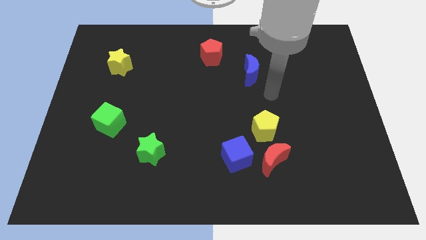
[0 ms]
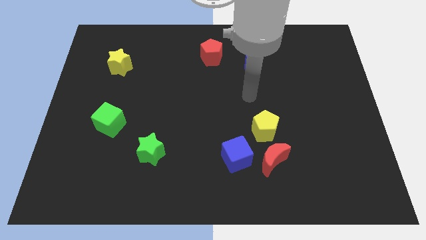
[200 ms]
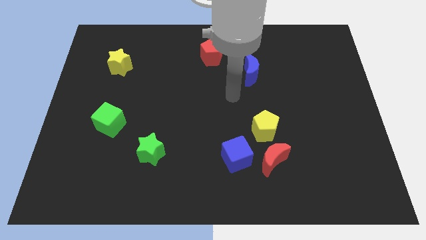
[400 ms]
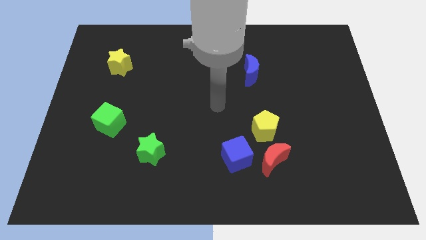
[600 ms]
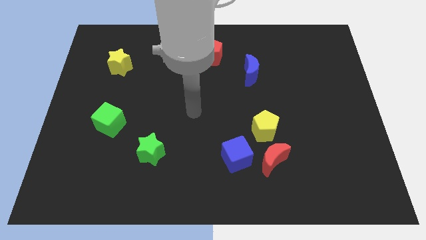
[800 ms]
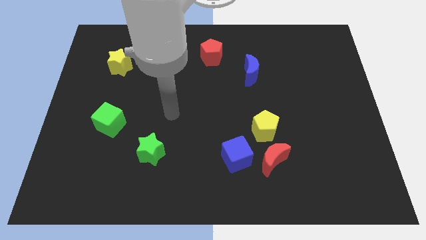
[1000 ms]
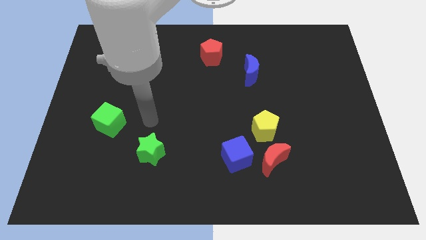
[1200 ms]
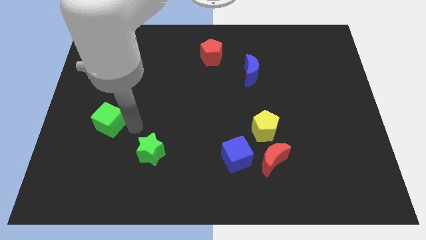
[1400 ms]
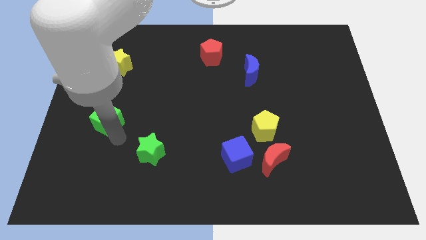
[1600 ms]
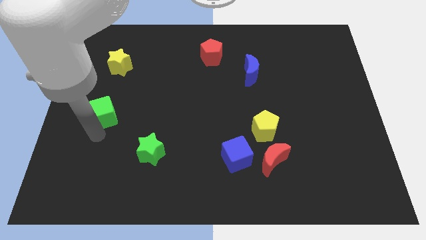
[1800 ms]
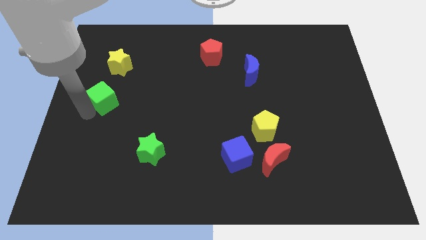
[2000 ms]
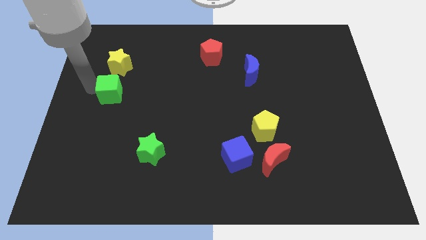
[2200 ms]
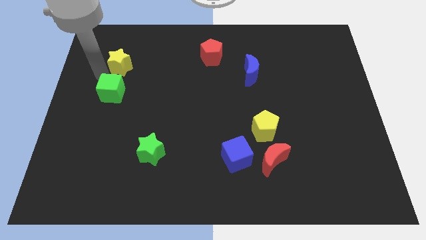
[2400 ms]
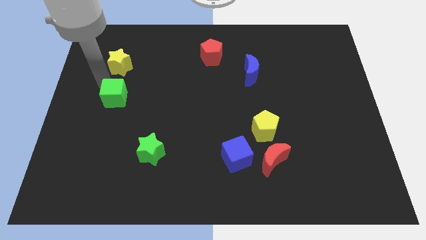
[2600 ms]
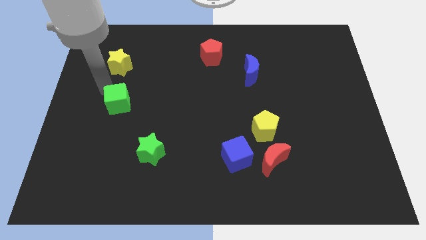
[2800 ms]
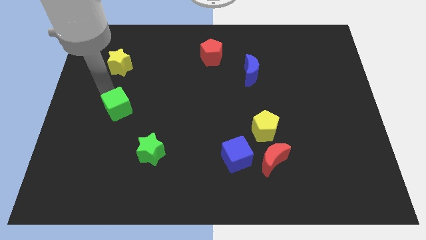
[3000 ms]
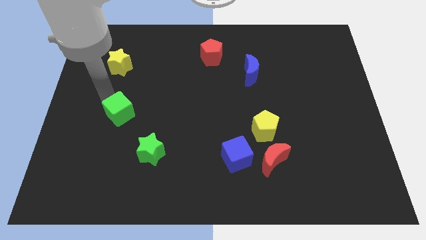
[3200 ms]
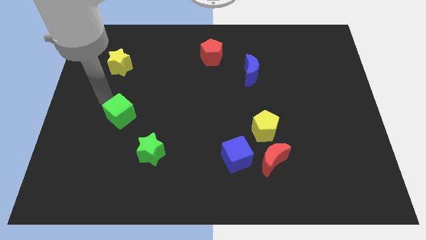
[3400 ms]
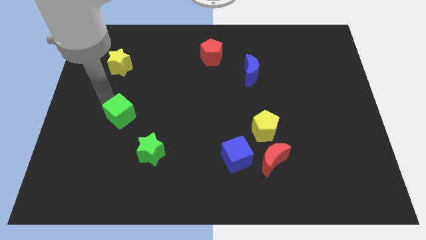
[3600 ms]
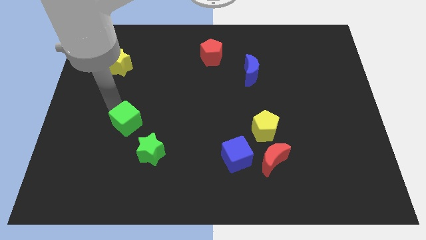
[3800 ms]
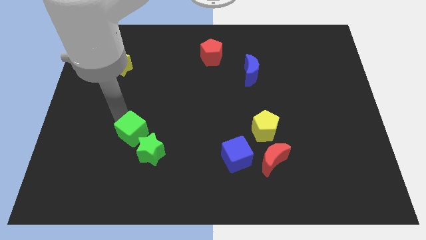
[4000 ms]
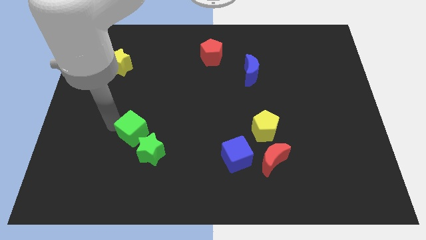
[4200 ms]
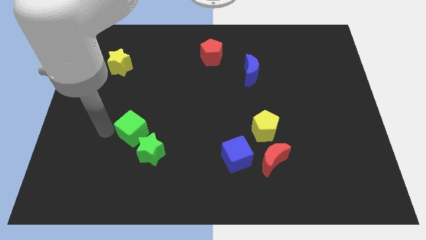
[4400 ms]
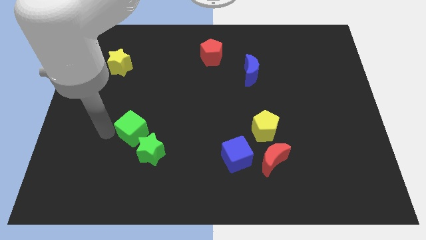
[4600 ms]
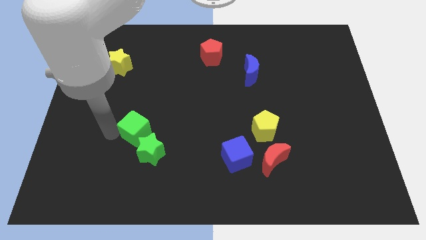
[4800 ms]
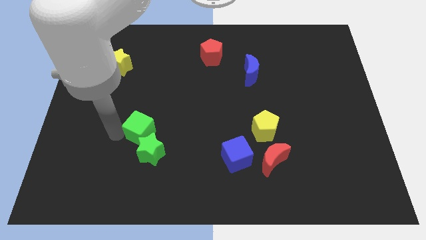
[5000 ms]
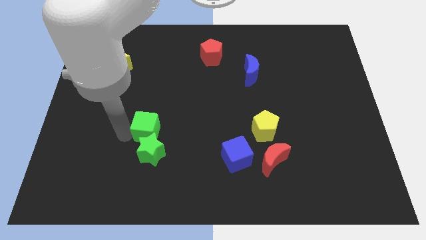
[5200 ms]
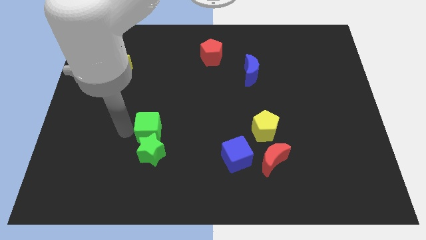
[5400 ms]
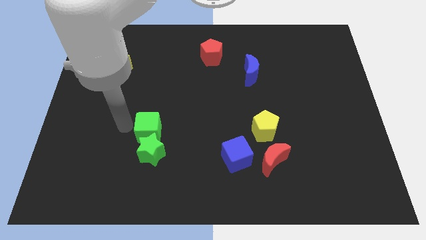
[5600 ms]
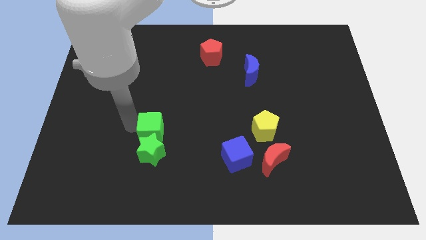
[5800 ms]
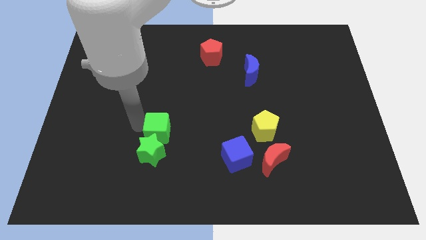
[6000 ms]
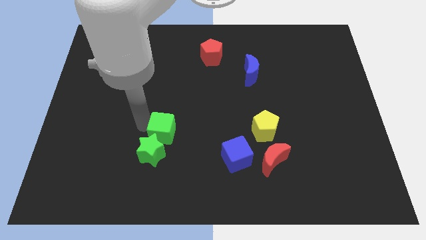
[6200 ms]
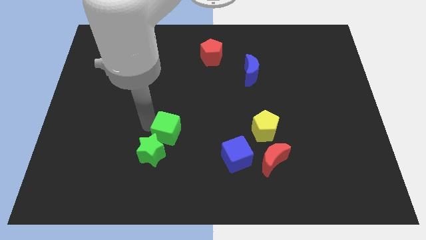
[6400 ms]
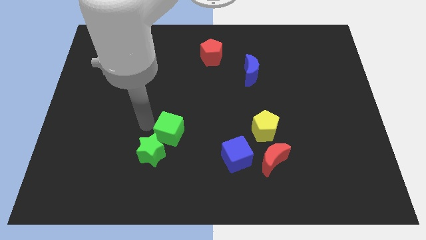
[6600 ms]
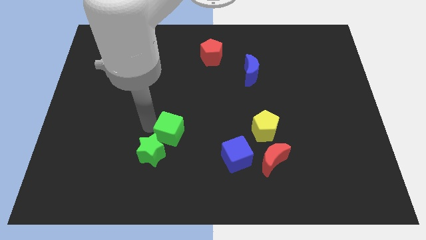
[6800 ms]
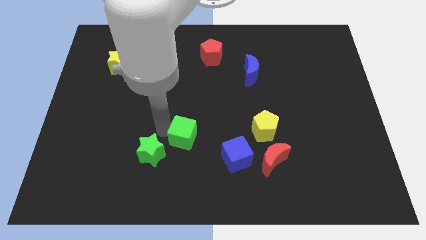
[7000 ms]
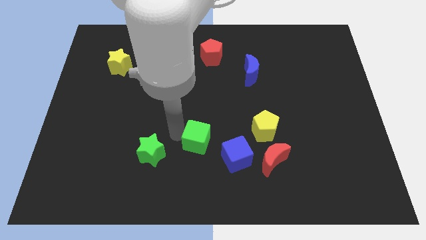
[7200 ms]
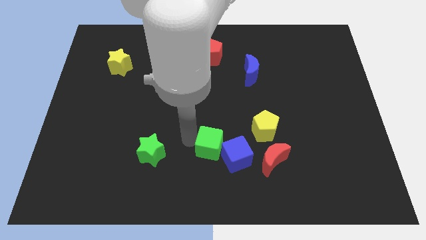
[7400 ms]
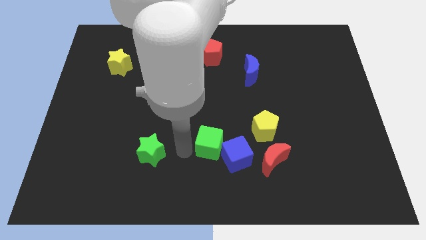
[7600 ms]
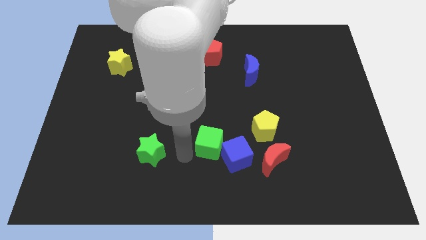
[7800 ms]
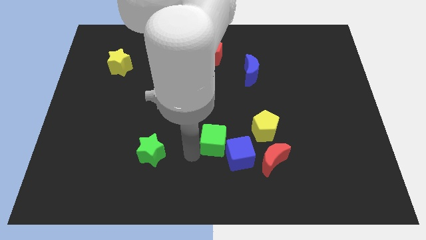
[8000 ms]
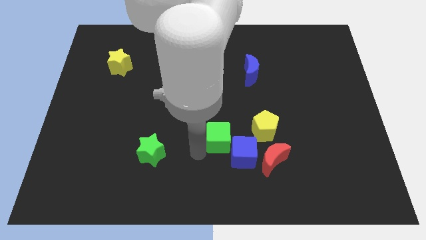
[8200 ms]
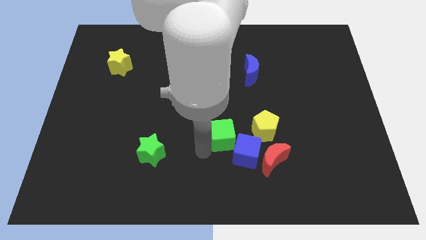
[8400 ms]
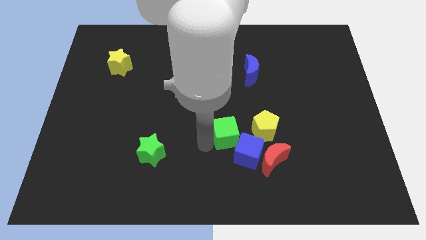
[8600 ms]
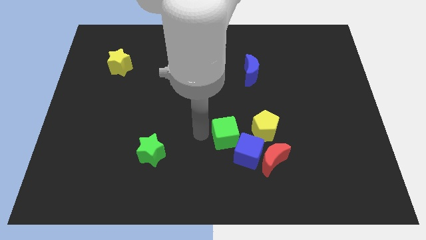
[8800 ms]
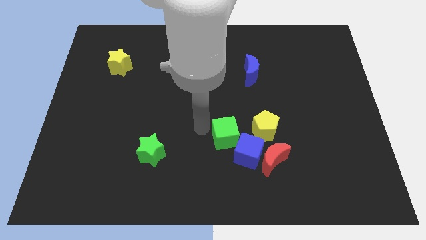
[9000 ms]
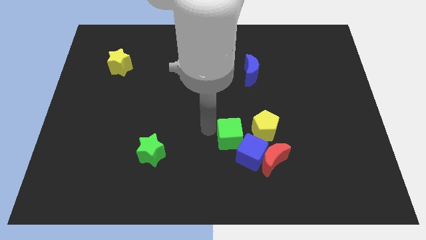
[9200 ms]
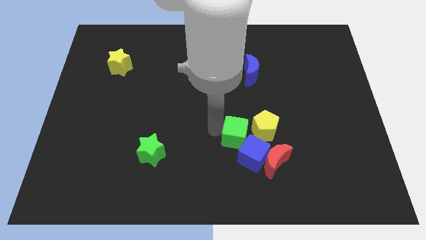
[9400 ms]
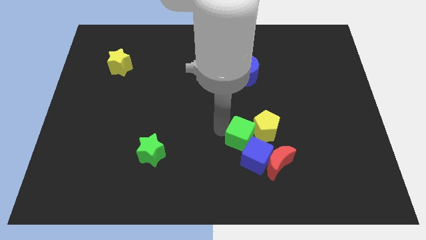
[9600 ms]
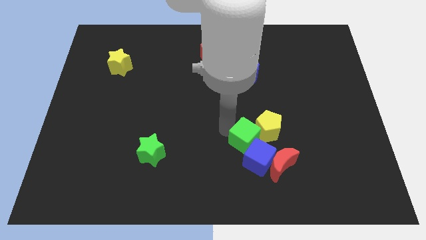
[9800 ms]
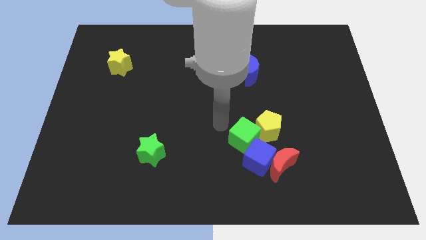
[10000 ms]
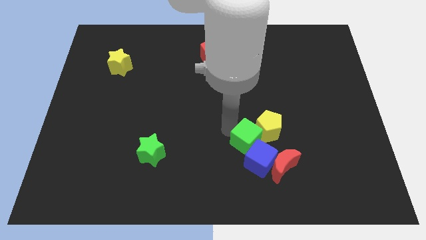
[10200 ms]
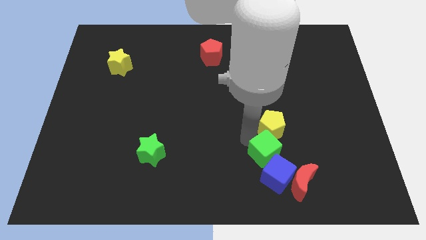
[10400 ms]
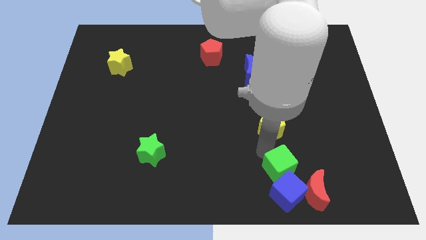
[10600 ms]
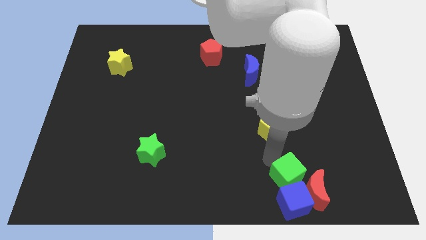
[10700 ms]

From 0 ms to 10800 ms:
slide the green cube next to the red moon

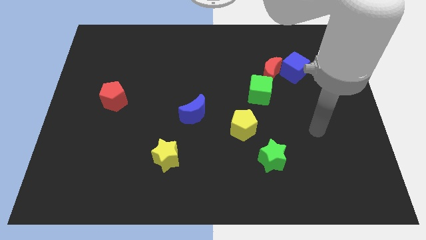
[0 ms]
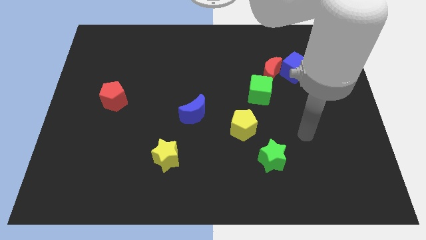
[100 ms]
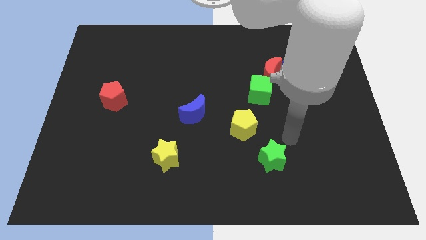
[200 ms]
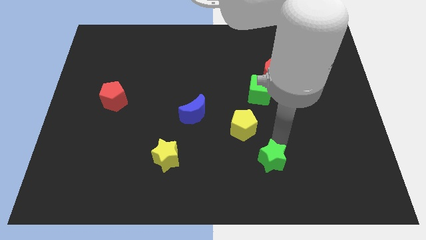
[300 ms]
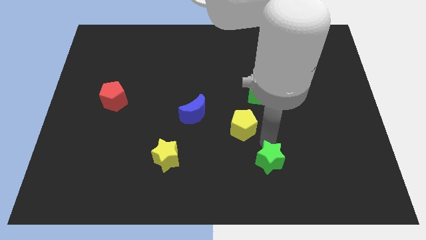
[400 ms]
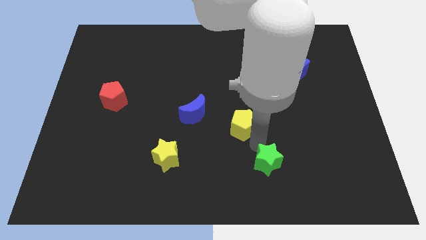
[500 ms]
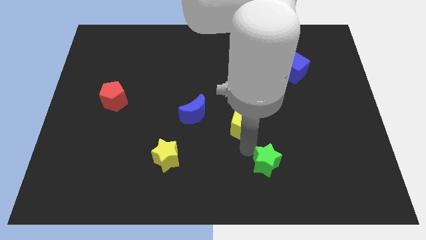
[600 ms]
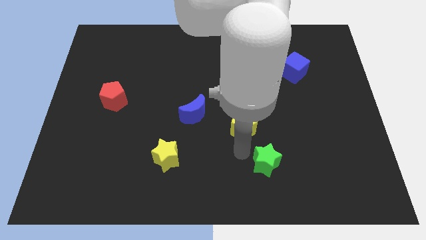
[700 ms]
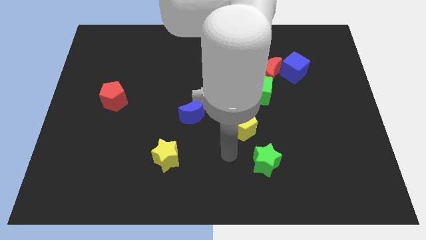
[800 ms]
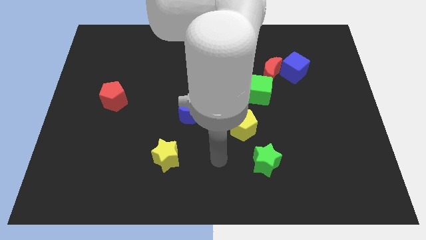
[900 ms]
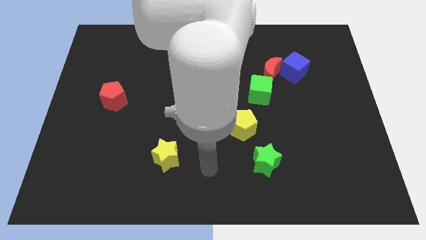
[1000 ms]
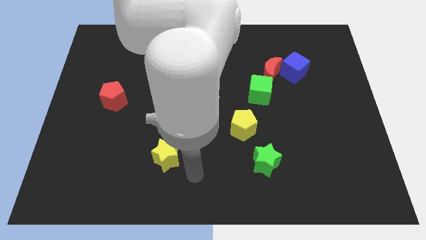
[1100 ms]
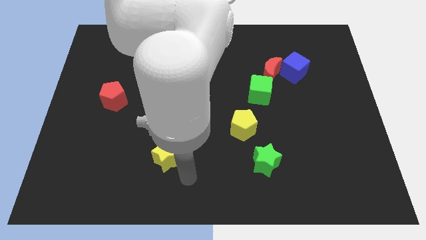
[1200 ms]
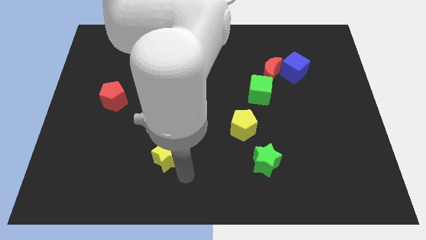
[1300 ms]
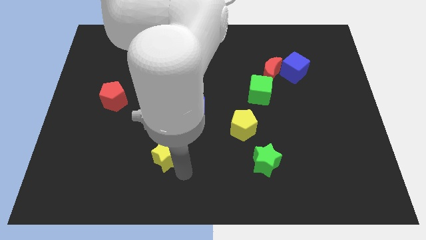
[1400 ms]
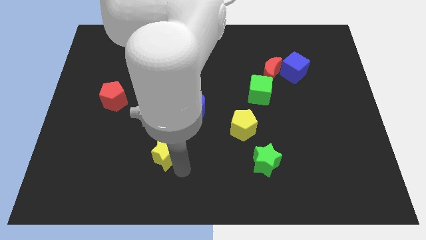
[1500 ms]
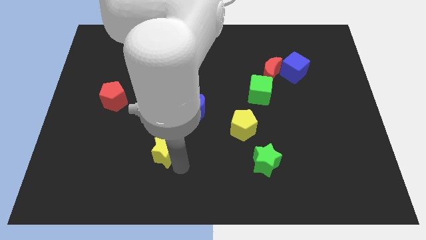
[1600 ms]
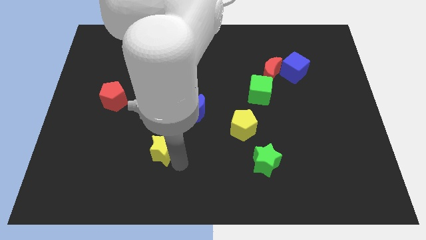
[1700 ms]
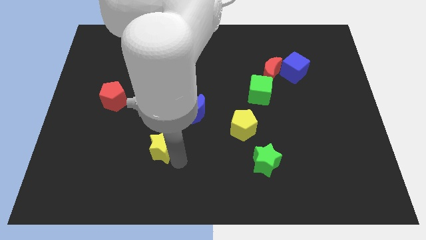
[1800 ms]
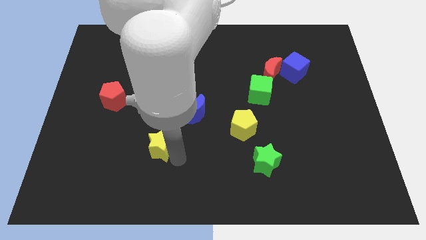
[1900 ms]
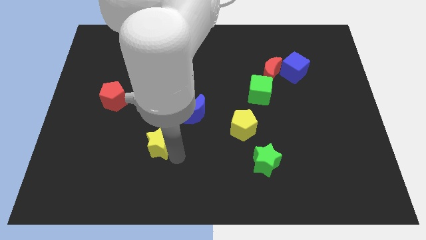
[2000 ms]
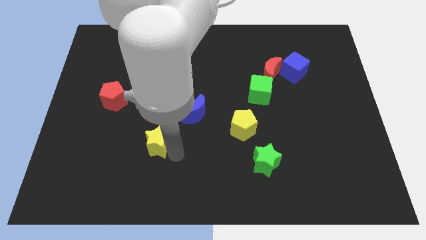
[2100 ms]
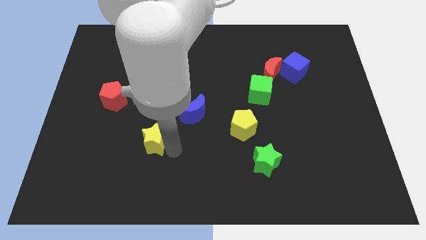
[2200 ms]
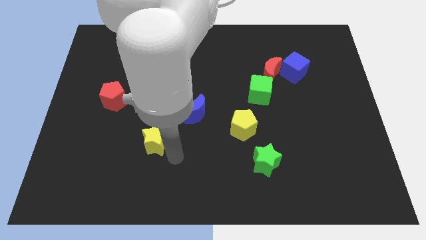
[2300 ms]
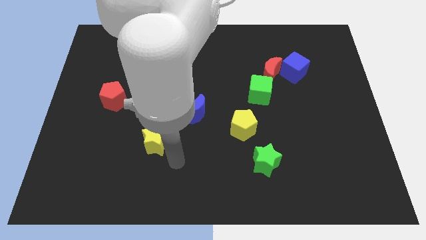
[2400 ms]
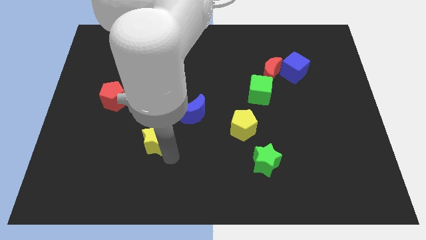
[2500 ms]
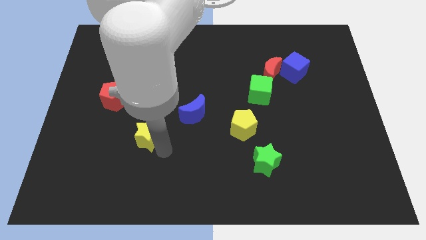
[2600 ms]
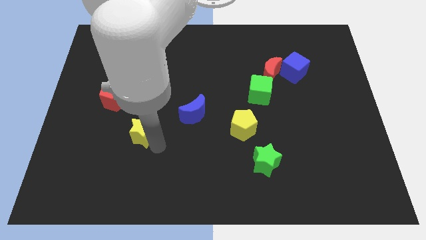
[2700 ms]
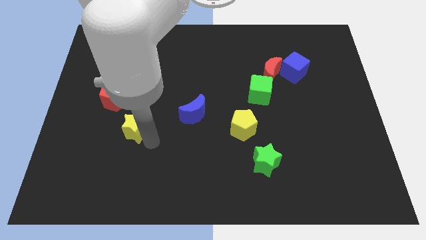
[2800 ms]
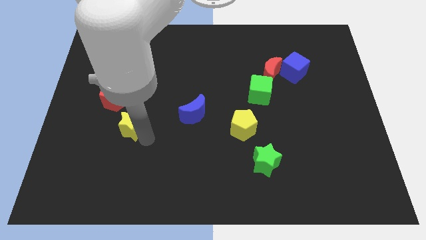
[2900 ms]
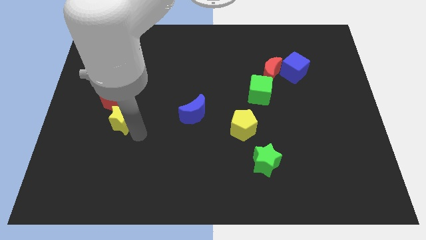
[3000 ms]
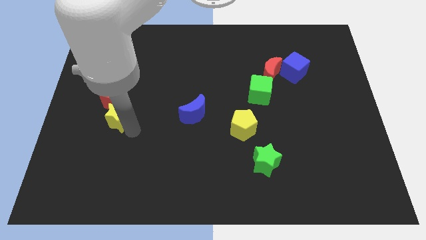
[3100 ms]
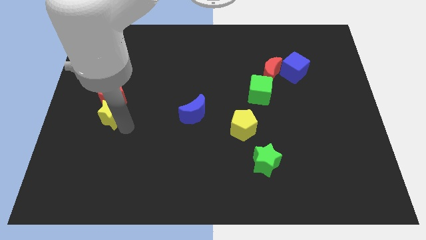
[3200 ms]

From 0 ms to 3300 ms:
put the yellow star close to the red pentagon
